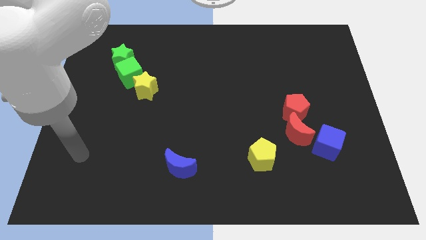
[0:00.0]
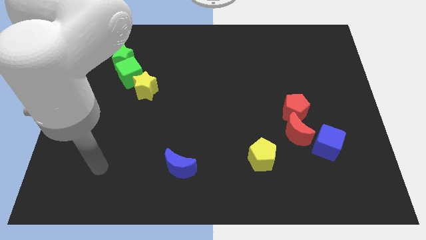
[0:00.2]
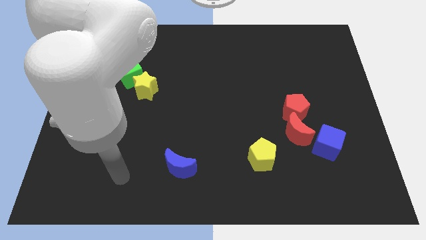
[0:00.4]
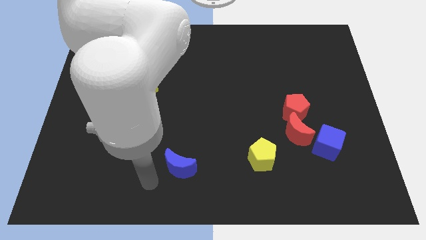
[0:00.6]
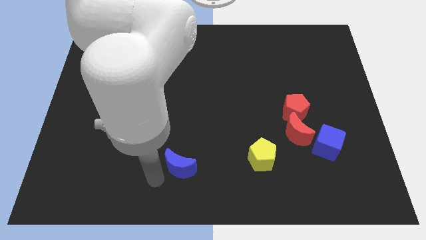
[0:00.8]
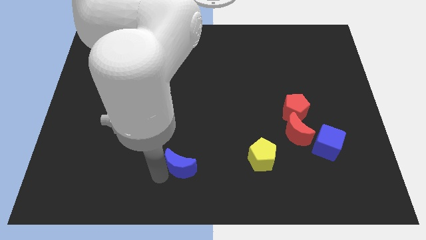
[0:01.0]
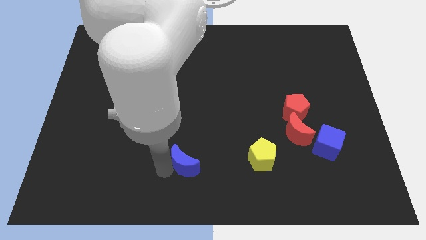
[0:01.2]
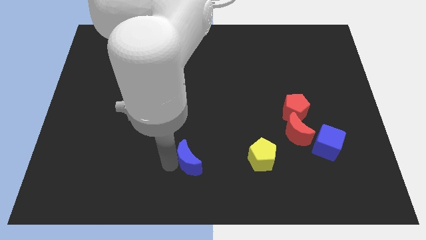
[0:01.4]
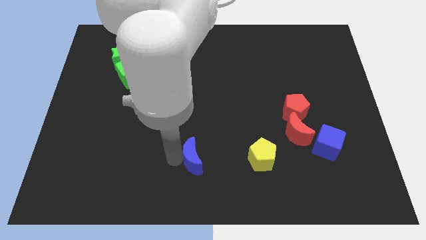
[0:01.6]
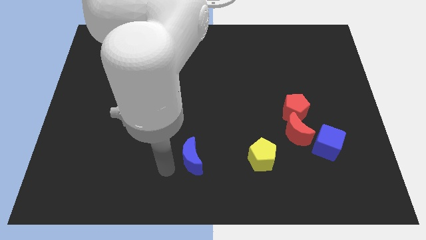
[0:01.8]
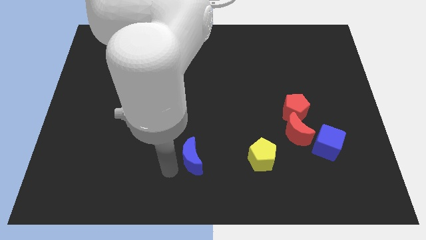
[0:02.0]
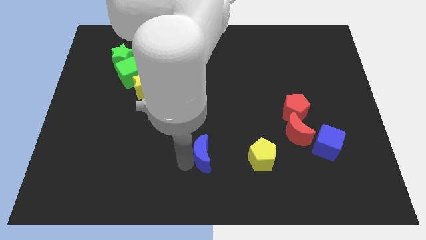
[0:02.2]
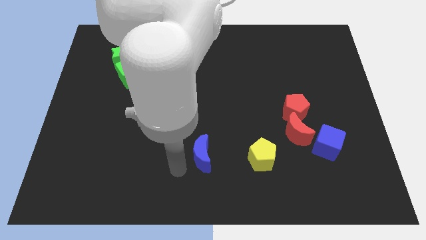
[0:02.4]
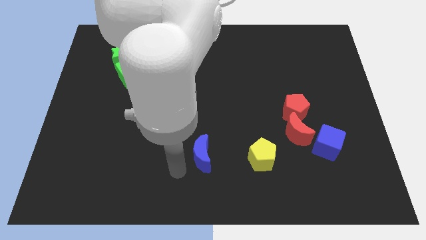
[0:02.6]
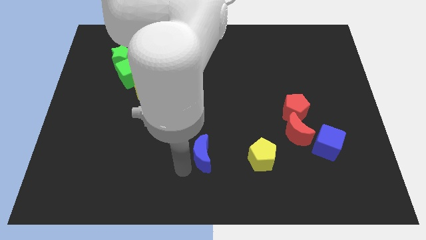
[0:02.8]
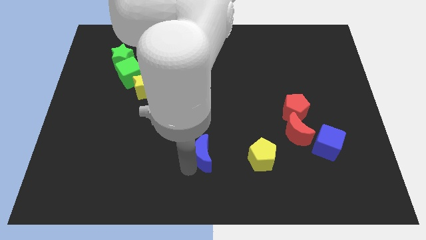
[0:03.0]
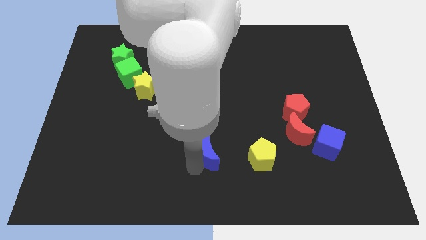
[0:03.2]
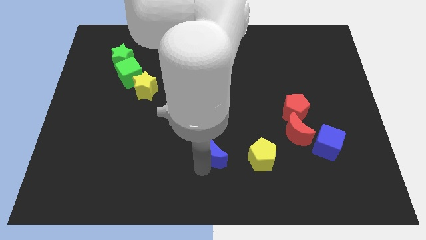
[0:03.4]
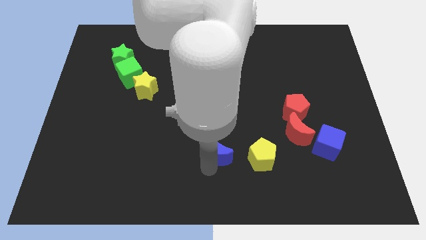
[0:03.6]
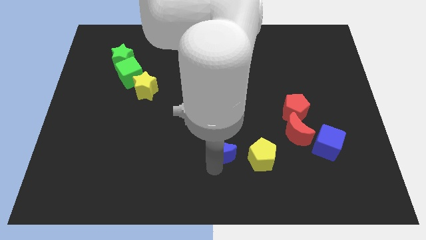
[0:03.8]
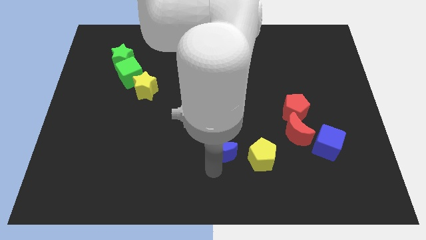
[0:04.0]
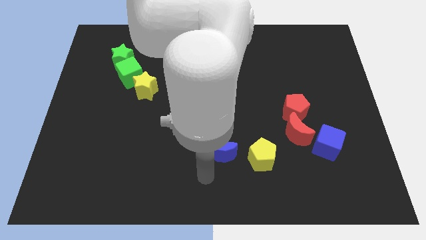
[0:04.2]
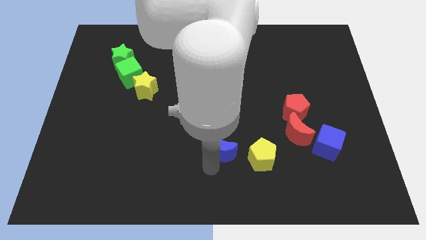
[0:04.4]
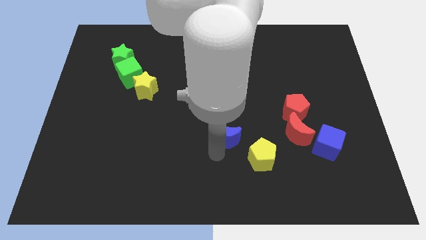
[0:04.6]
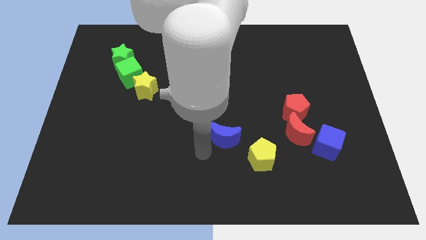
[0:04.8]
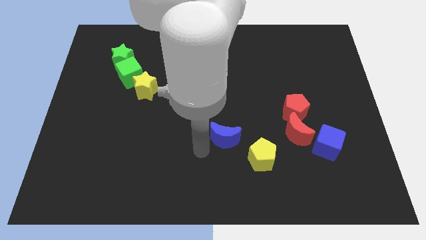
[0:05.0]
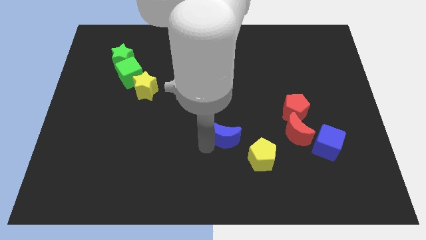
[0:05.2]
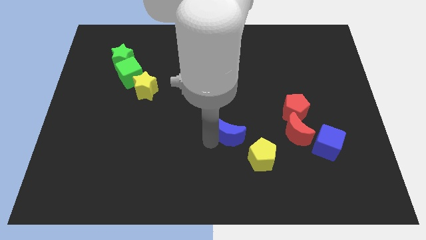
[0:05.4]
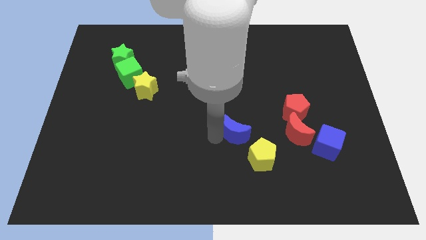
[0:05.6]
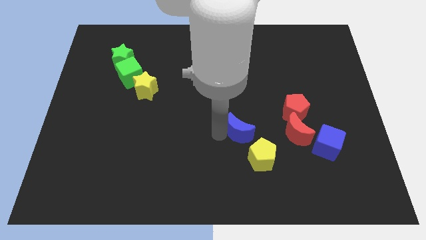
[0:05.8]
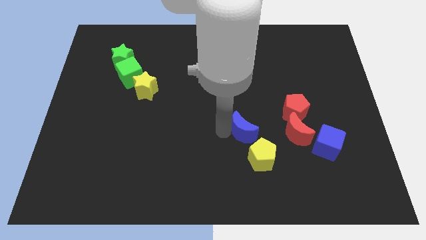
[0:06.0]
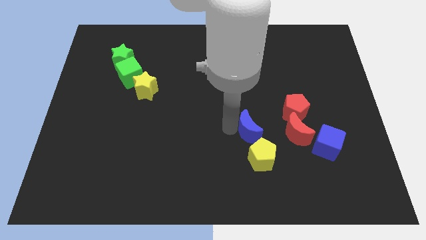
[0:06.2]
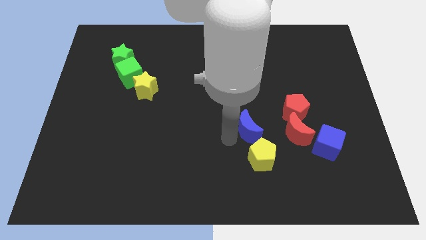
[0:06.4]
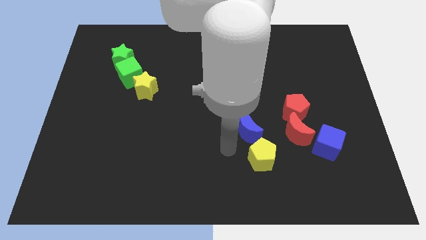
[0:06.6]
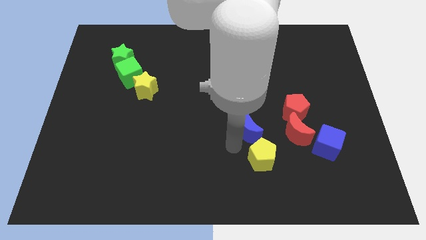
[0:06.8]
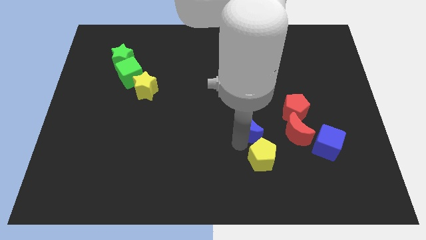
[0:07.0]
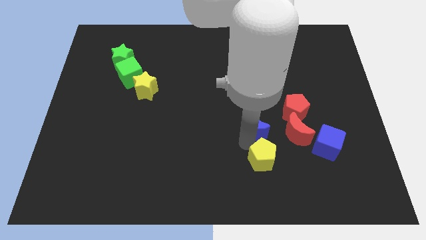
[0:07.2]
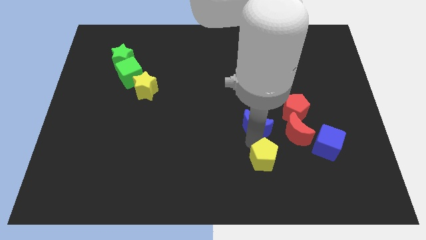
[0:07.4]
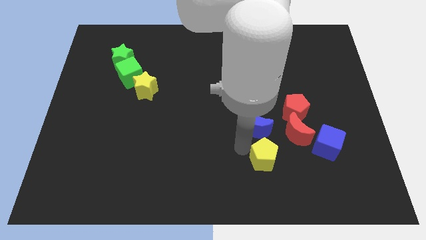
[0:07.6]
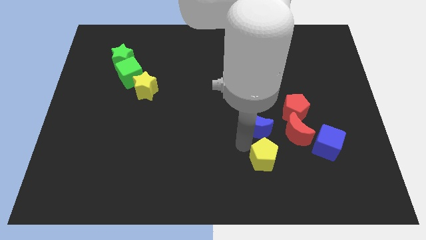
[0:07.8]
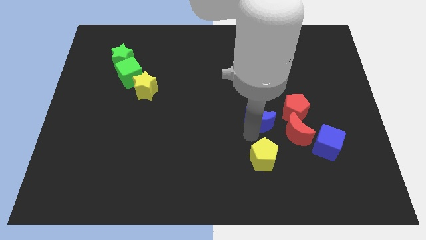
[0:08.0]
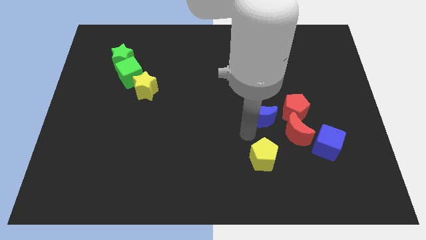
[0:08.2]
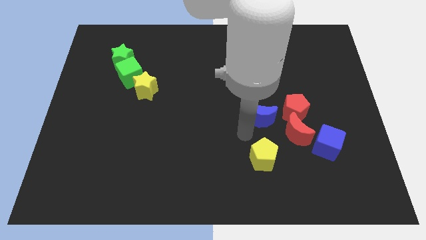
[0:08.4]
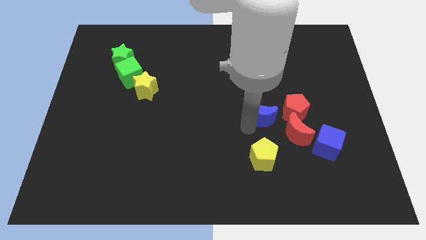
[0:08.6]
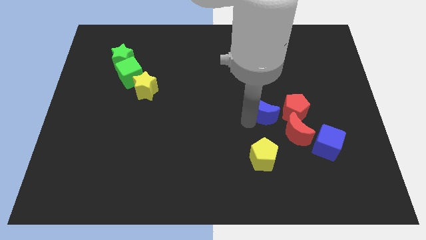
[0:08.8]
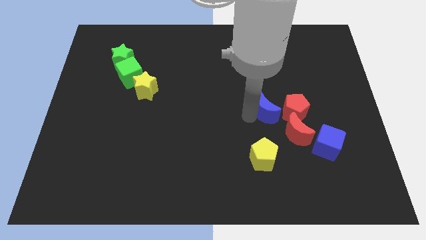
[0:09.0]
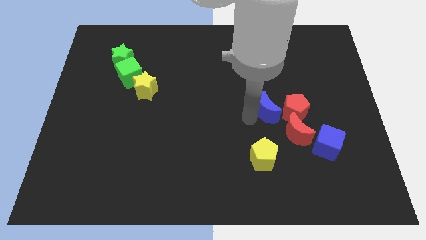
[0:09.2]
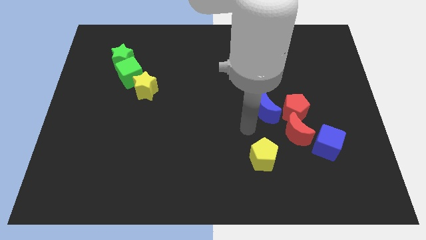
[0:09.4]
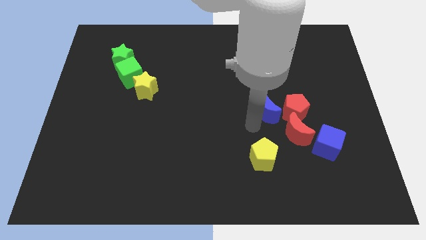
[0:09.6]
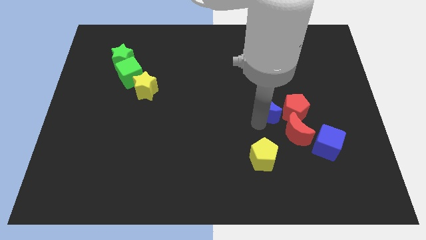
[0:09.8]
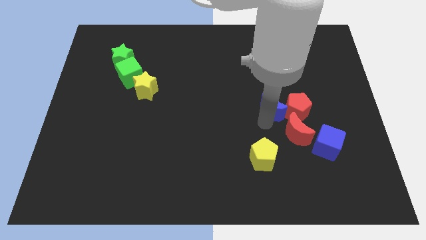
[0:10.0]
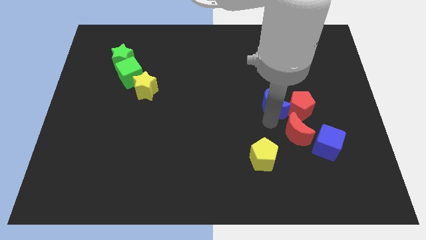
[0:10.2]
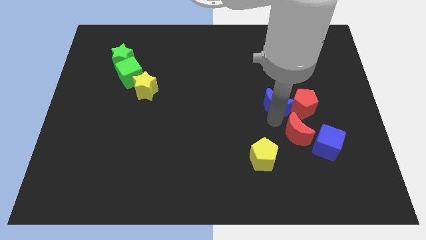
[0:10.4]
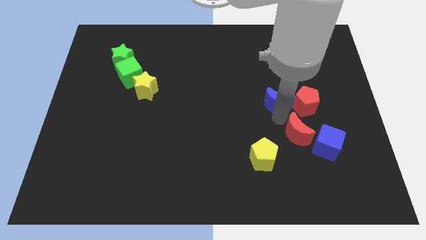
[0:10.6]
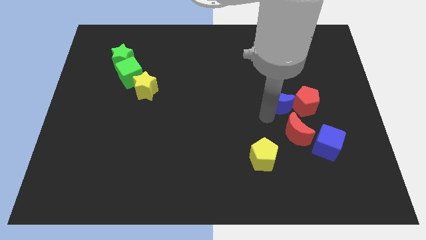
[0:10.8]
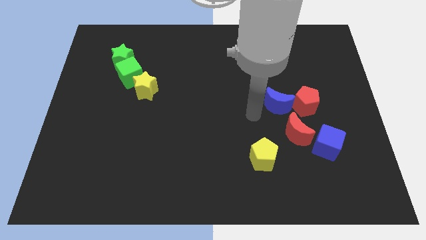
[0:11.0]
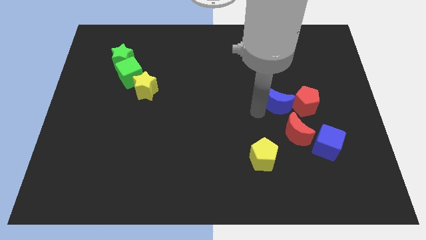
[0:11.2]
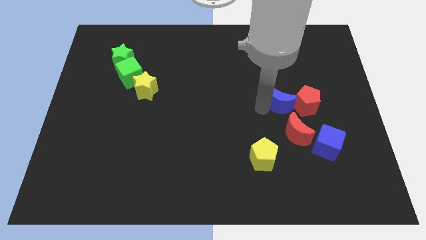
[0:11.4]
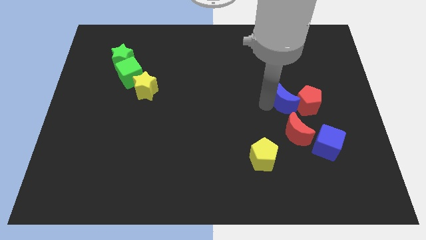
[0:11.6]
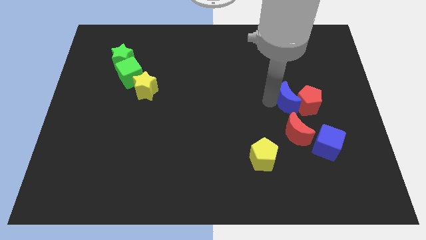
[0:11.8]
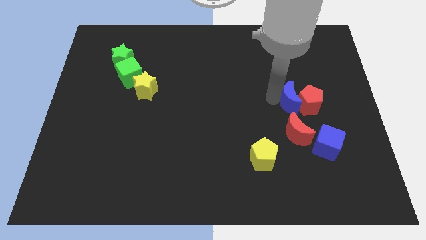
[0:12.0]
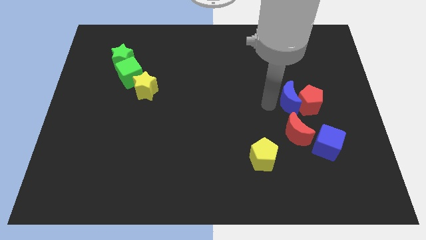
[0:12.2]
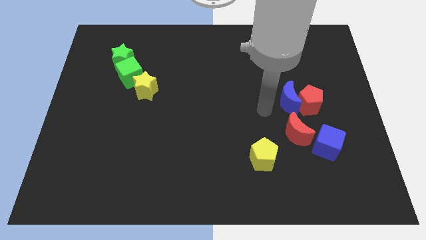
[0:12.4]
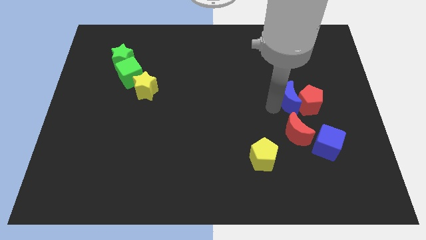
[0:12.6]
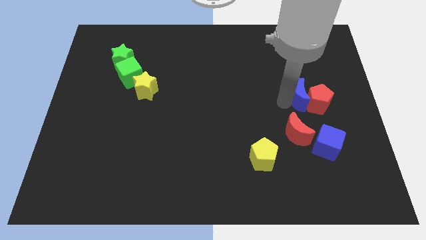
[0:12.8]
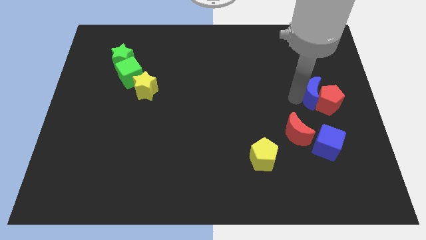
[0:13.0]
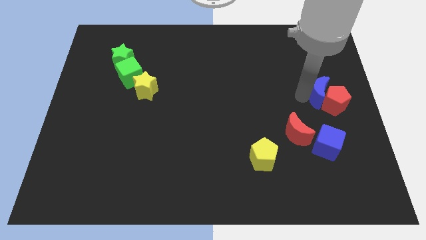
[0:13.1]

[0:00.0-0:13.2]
push the blue moon to the right side of the board
